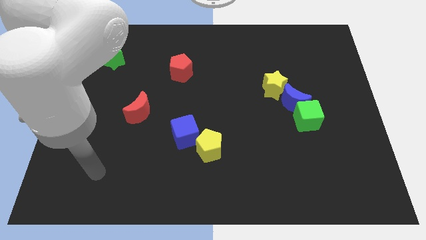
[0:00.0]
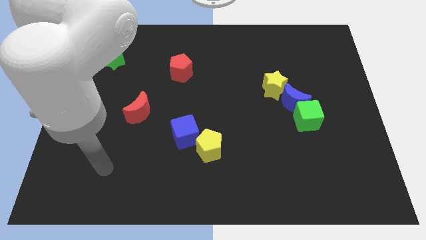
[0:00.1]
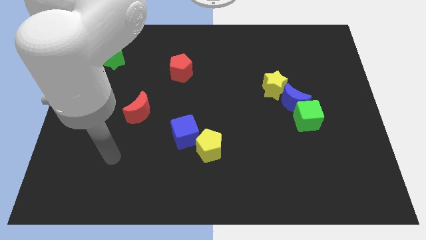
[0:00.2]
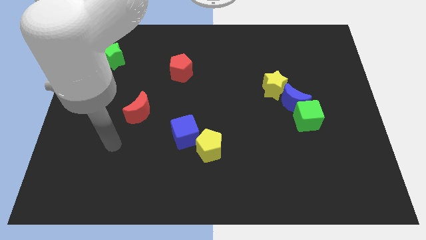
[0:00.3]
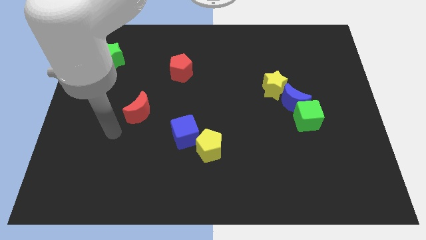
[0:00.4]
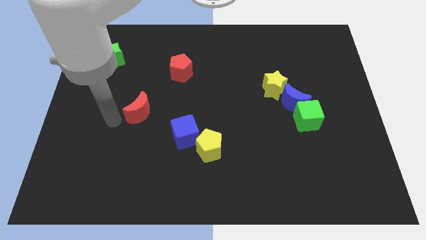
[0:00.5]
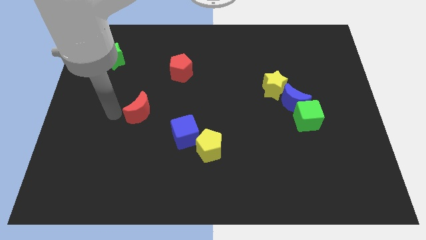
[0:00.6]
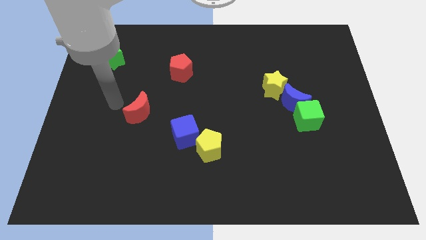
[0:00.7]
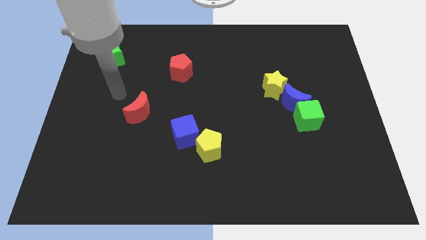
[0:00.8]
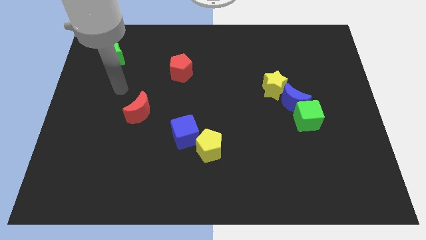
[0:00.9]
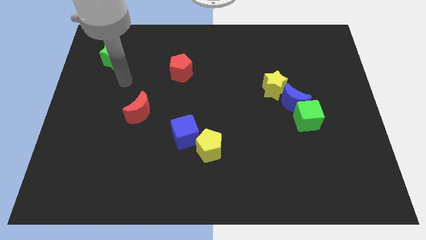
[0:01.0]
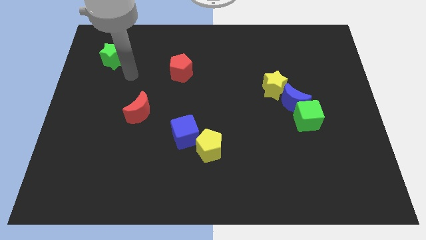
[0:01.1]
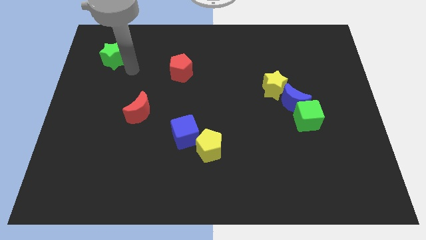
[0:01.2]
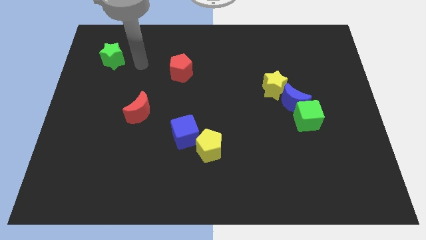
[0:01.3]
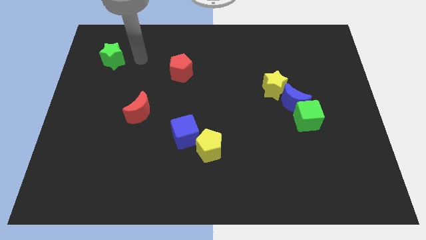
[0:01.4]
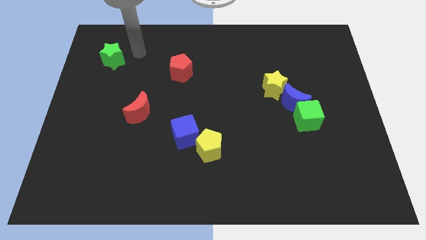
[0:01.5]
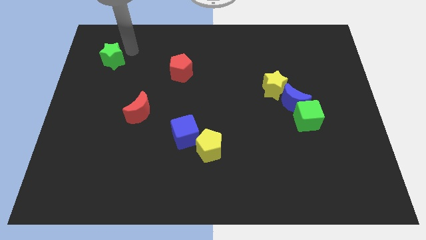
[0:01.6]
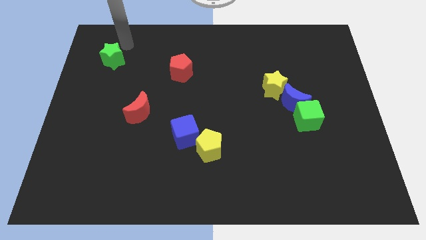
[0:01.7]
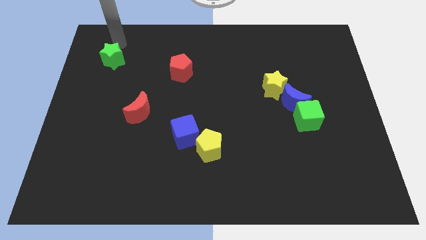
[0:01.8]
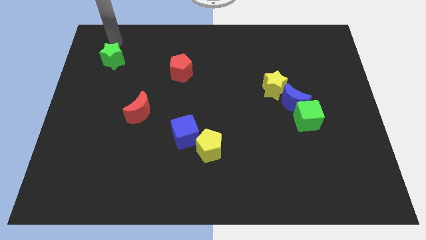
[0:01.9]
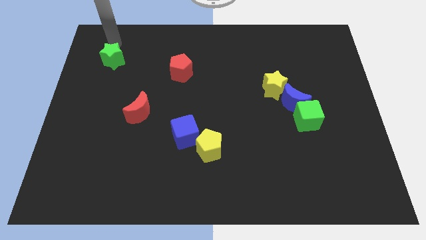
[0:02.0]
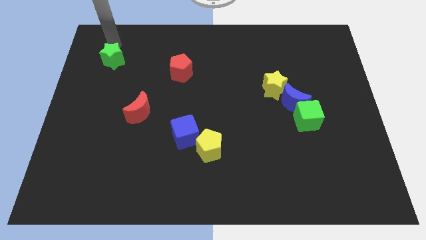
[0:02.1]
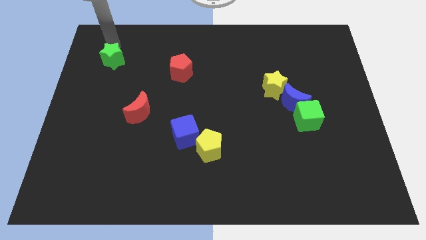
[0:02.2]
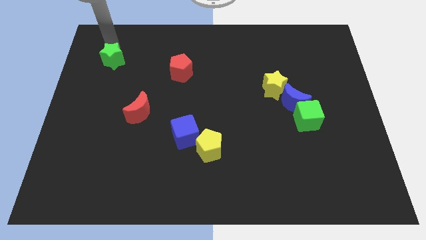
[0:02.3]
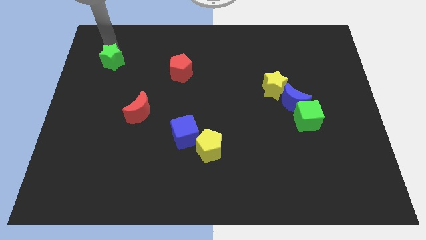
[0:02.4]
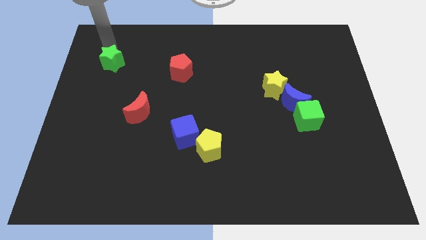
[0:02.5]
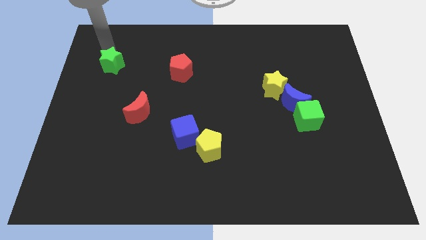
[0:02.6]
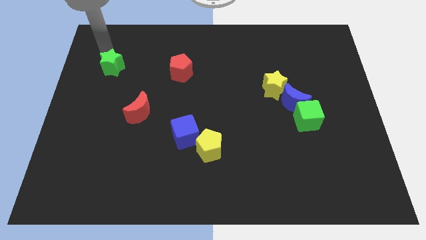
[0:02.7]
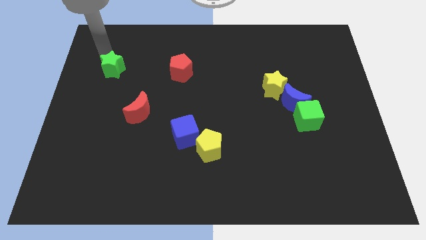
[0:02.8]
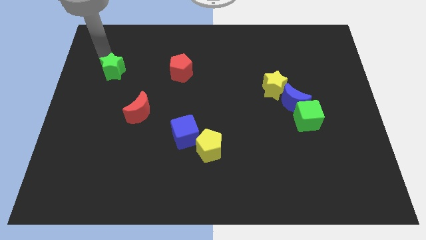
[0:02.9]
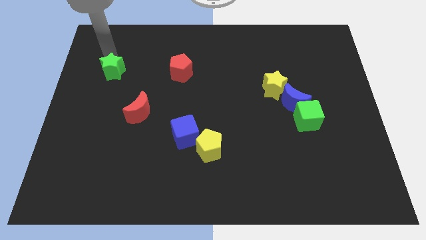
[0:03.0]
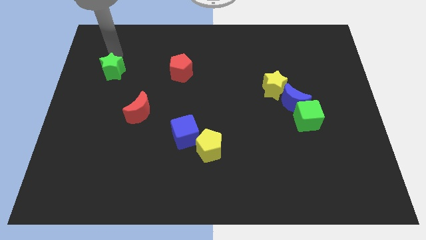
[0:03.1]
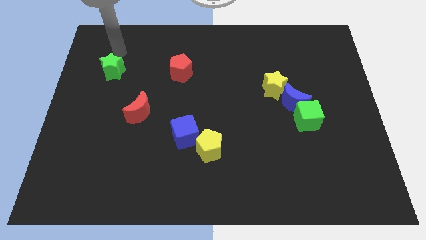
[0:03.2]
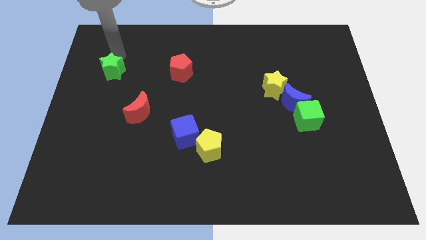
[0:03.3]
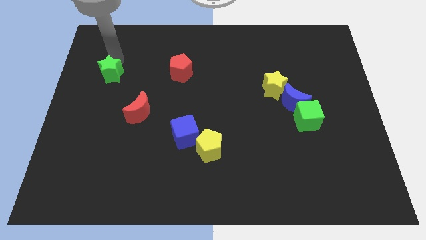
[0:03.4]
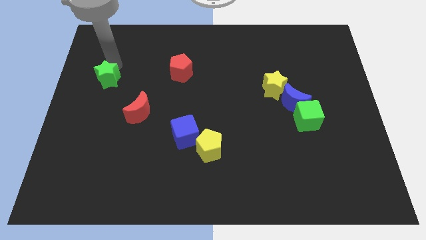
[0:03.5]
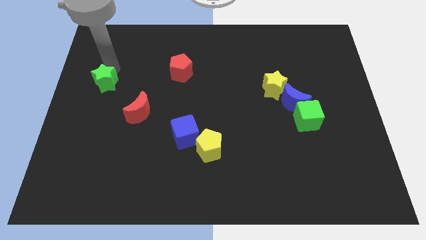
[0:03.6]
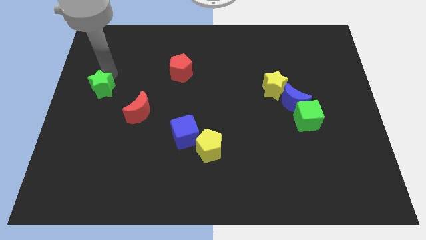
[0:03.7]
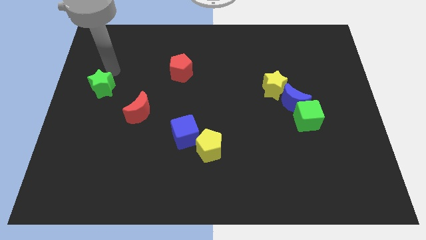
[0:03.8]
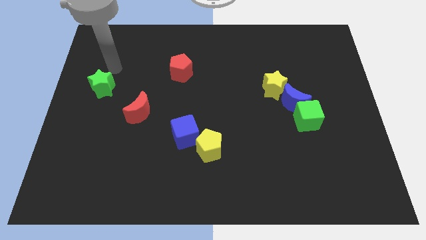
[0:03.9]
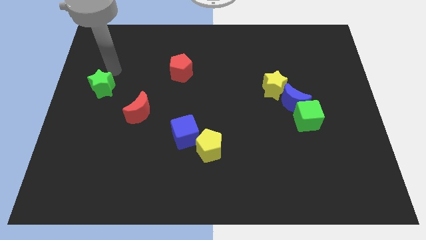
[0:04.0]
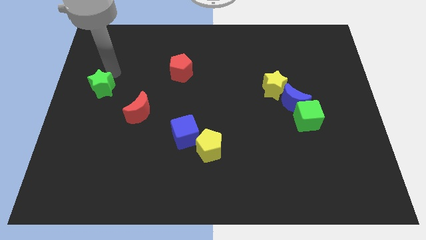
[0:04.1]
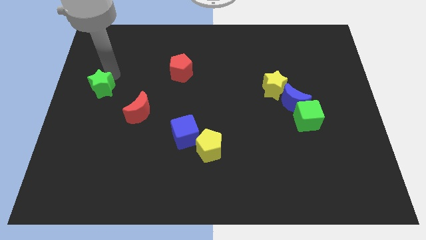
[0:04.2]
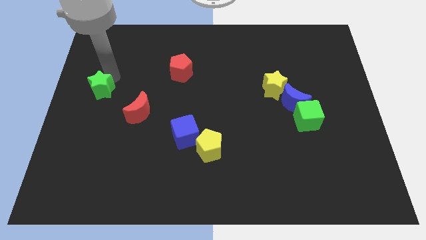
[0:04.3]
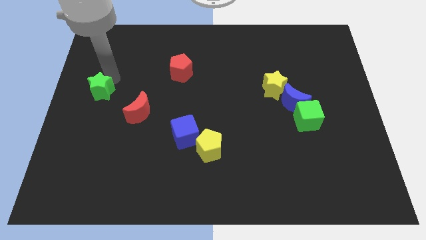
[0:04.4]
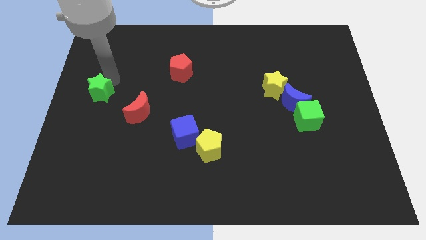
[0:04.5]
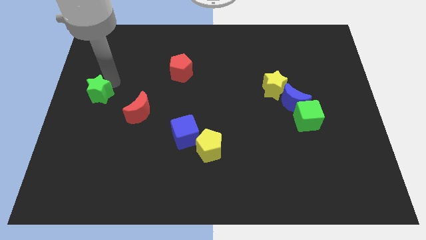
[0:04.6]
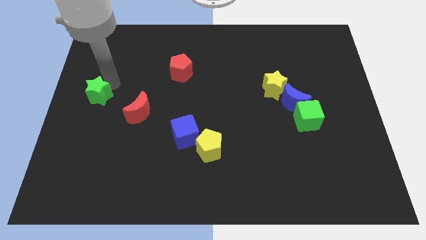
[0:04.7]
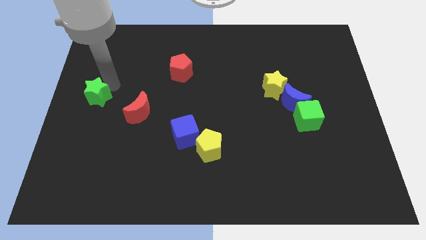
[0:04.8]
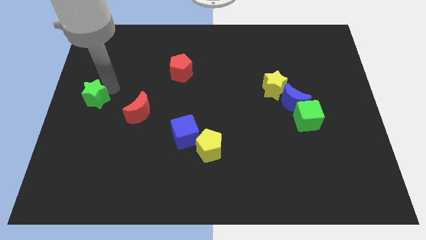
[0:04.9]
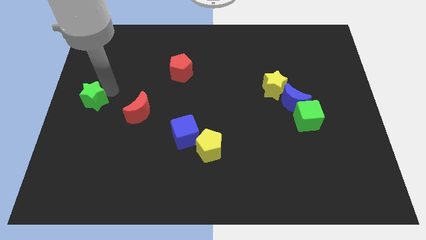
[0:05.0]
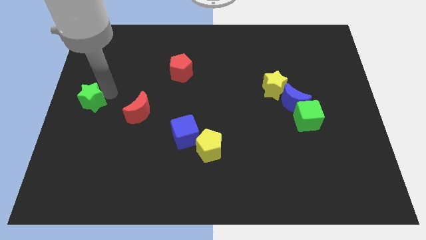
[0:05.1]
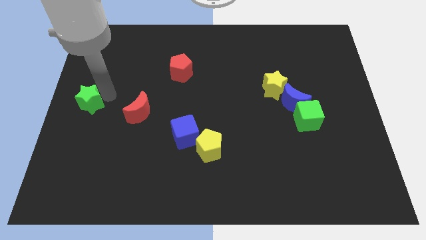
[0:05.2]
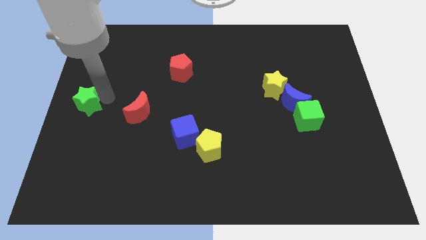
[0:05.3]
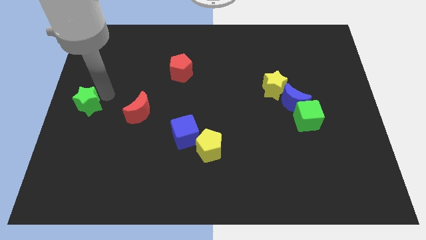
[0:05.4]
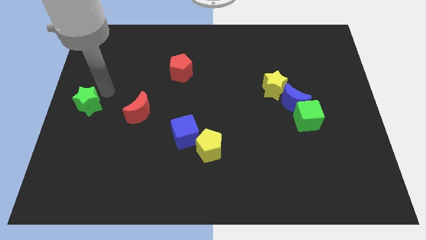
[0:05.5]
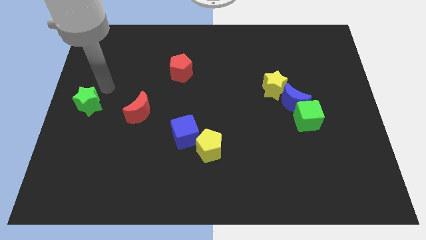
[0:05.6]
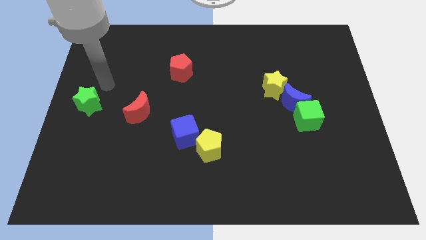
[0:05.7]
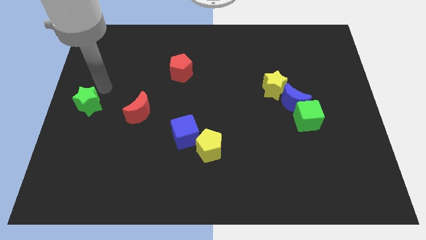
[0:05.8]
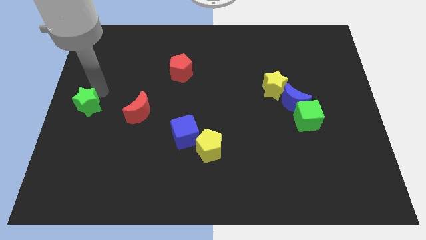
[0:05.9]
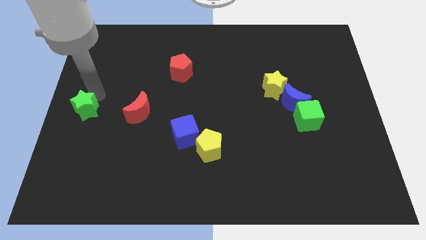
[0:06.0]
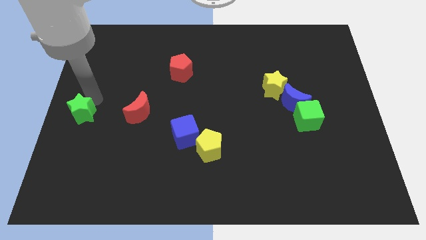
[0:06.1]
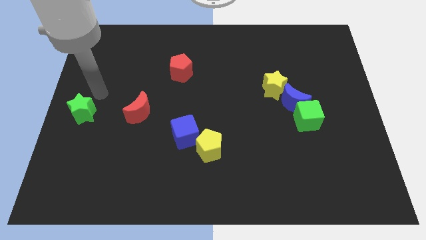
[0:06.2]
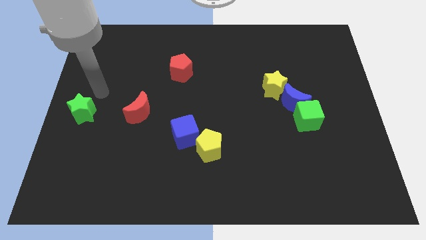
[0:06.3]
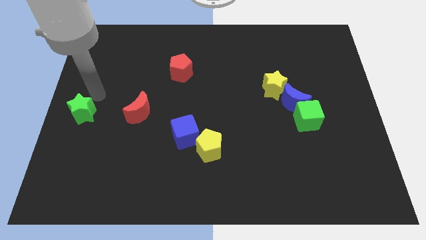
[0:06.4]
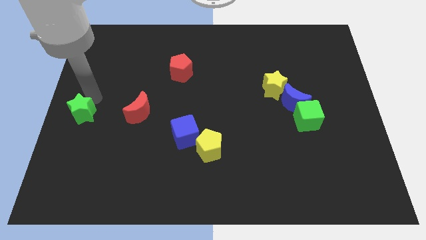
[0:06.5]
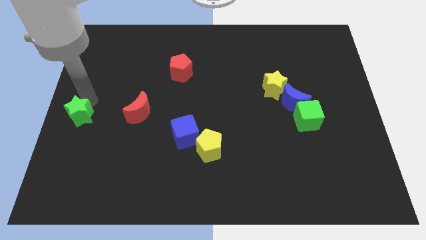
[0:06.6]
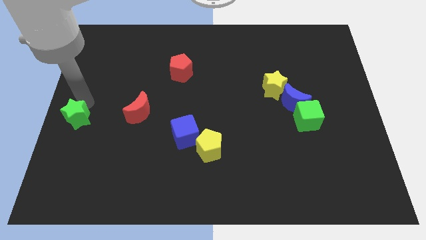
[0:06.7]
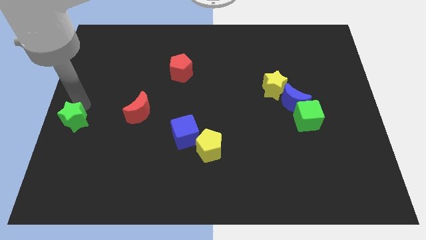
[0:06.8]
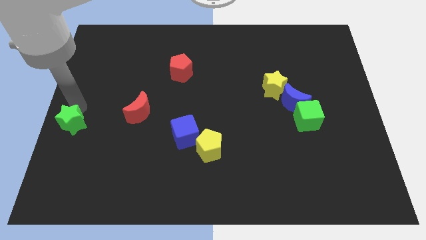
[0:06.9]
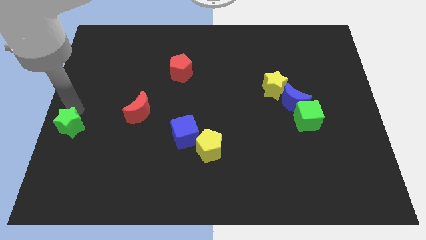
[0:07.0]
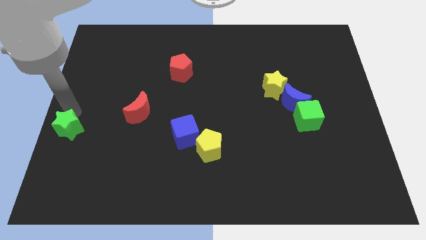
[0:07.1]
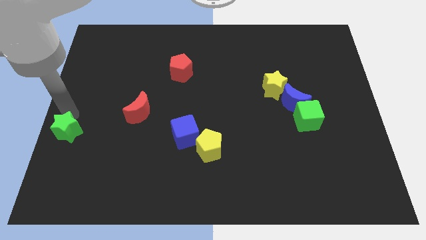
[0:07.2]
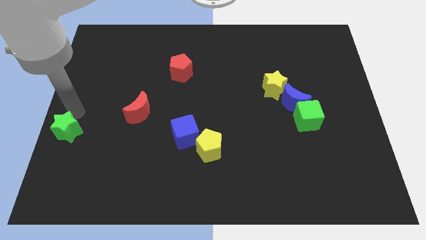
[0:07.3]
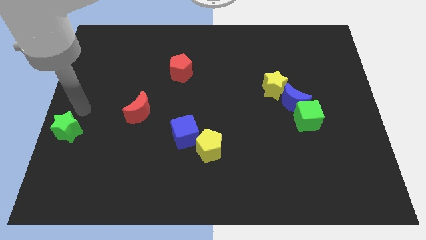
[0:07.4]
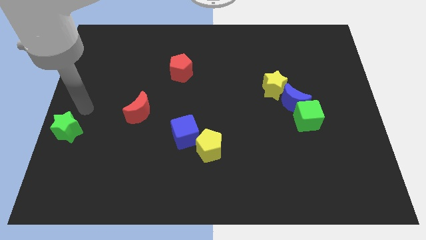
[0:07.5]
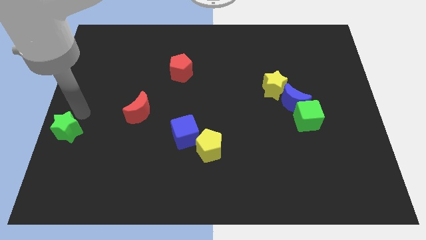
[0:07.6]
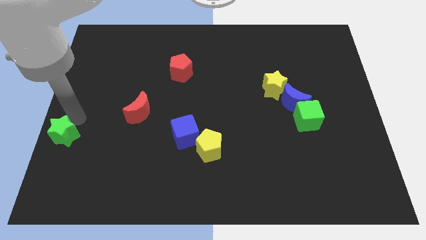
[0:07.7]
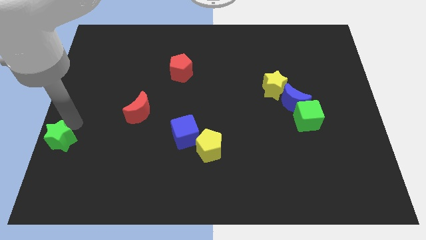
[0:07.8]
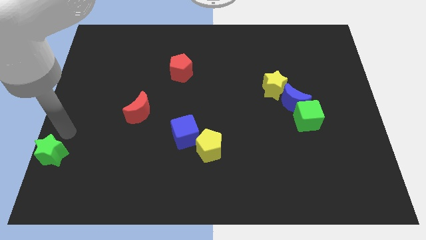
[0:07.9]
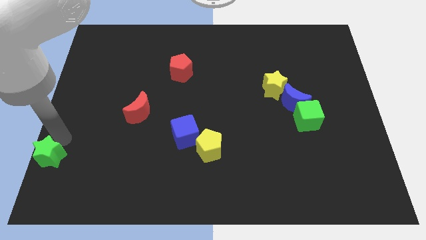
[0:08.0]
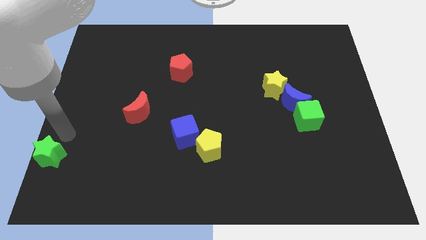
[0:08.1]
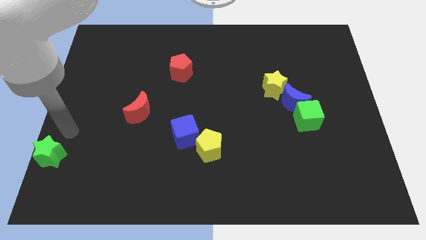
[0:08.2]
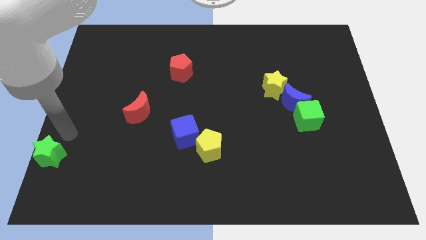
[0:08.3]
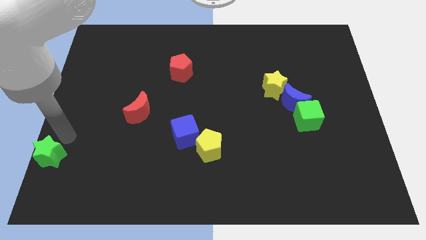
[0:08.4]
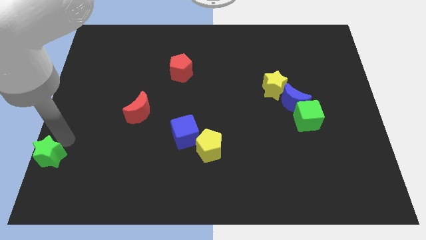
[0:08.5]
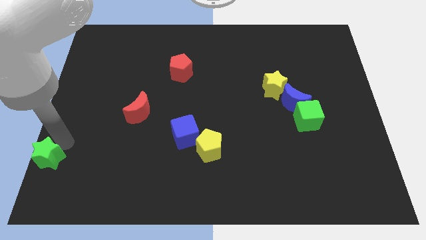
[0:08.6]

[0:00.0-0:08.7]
put the green star to the bottom left corner
